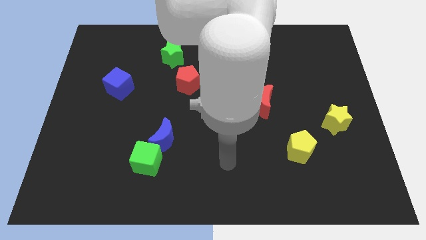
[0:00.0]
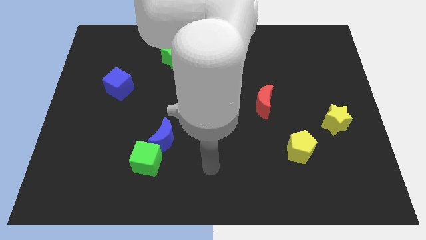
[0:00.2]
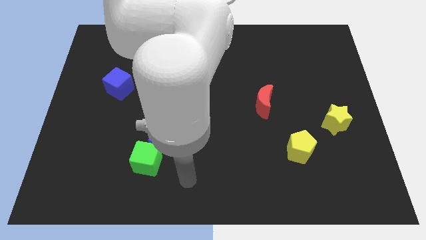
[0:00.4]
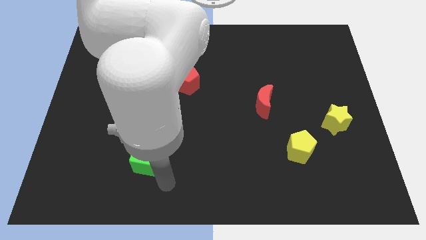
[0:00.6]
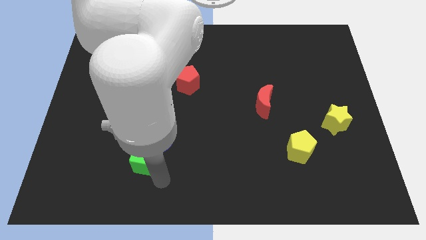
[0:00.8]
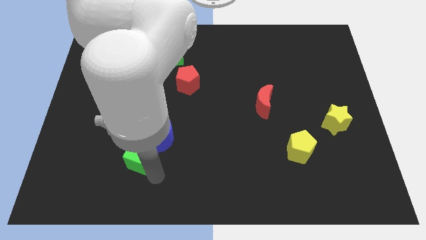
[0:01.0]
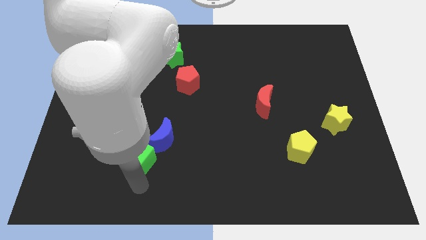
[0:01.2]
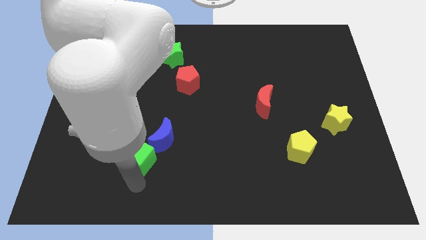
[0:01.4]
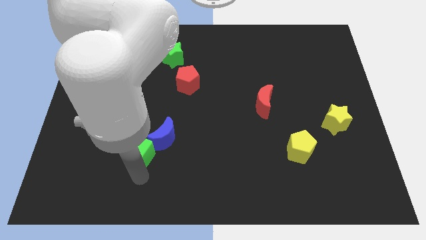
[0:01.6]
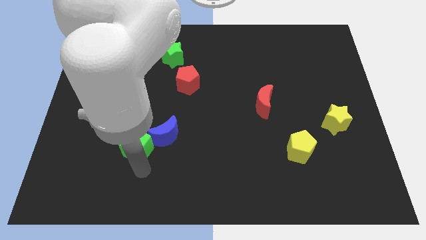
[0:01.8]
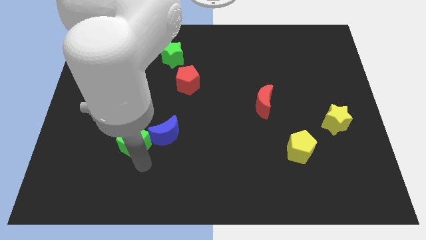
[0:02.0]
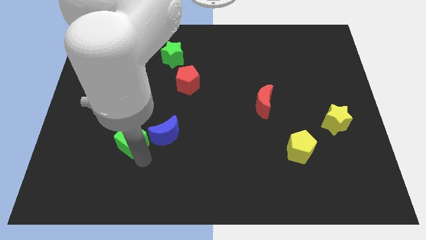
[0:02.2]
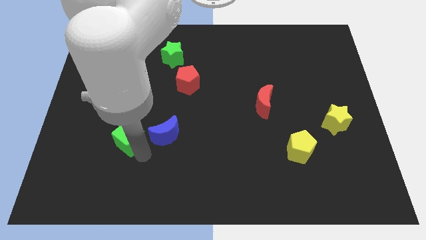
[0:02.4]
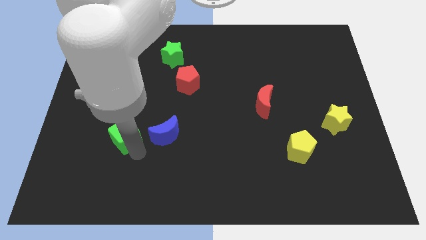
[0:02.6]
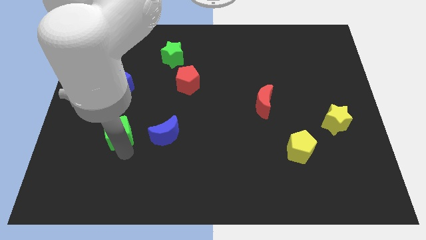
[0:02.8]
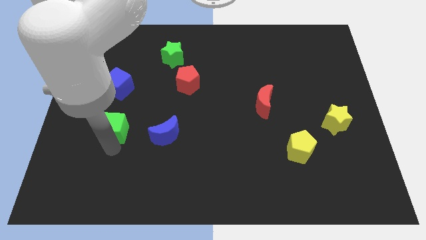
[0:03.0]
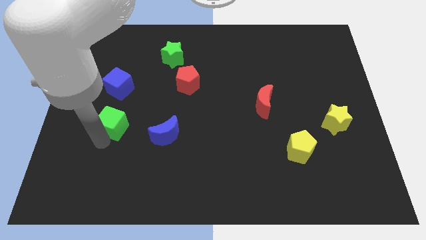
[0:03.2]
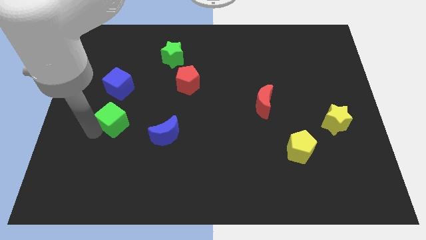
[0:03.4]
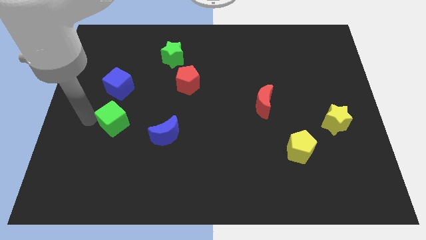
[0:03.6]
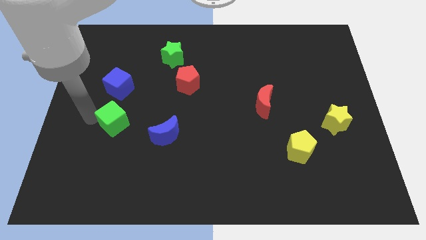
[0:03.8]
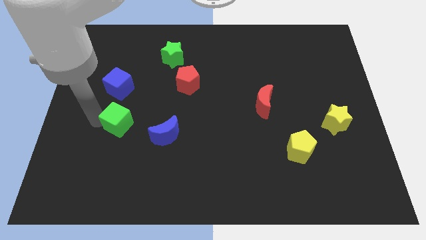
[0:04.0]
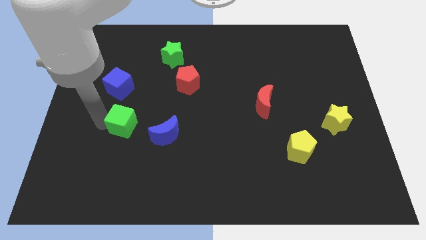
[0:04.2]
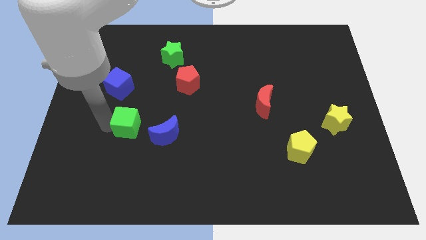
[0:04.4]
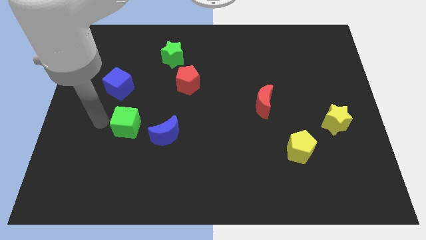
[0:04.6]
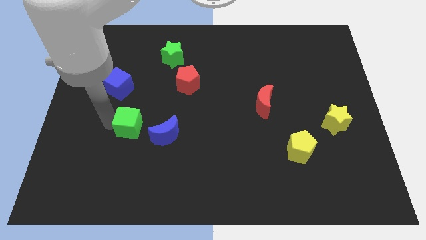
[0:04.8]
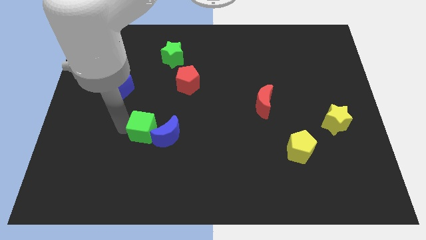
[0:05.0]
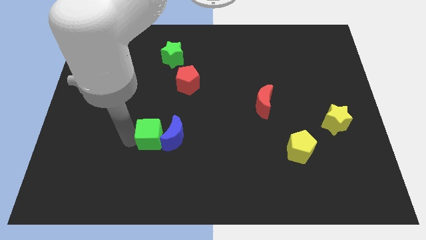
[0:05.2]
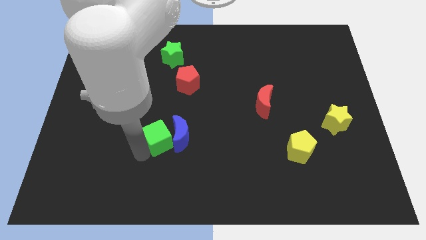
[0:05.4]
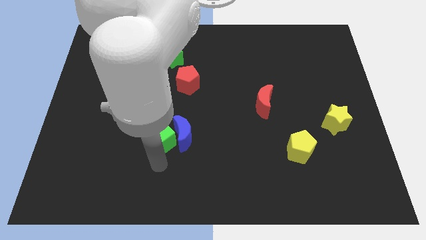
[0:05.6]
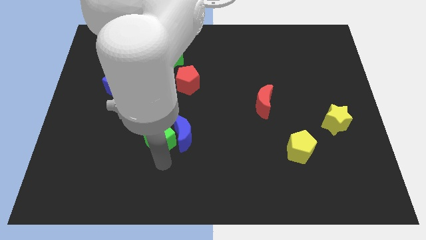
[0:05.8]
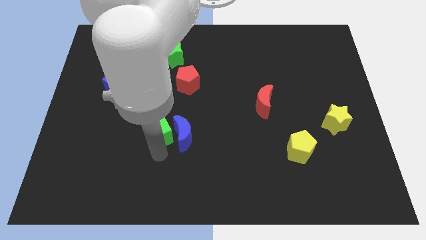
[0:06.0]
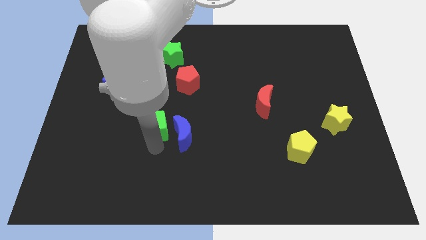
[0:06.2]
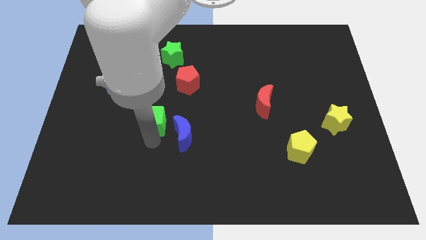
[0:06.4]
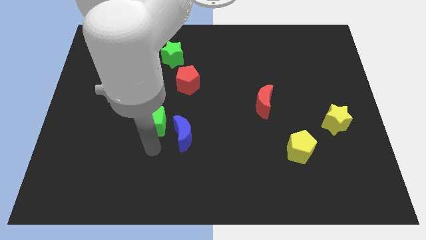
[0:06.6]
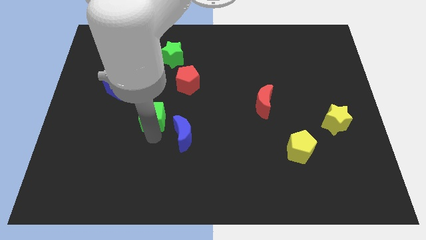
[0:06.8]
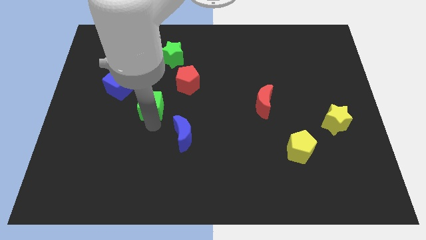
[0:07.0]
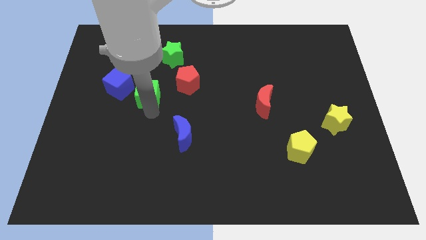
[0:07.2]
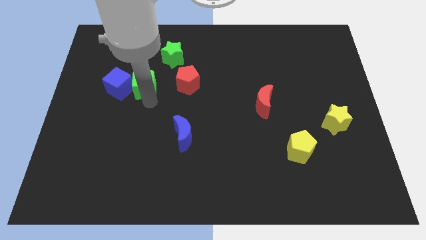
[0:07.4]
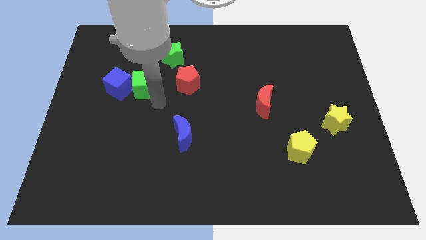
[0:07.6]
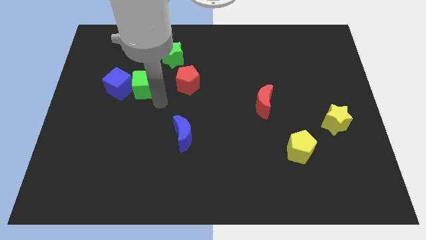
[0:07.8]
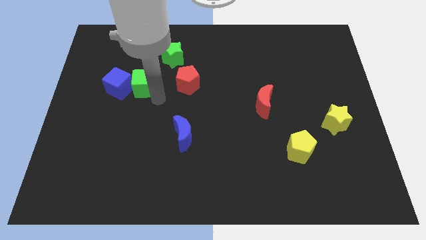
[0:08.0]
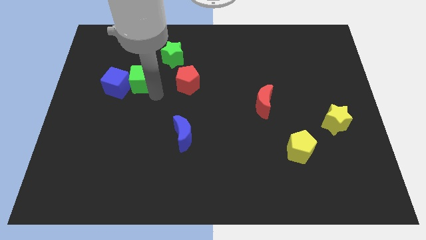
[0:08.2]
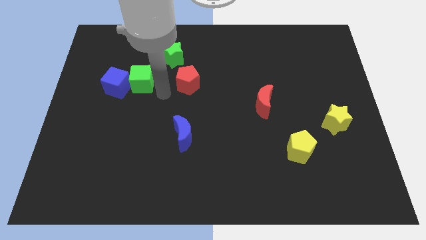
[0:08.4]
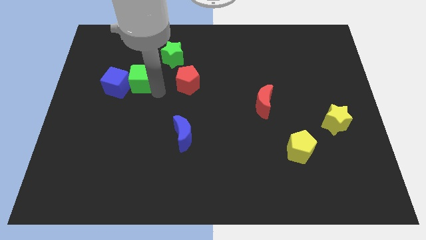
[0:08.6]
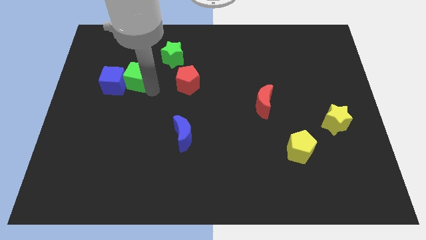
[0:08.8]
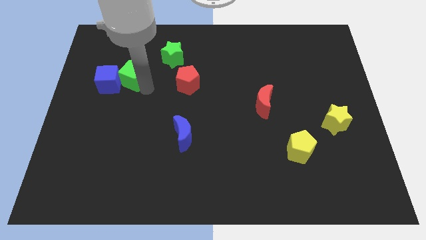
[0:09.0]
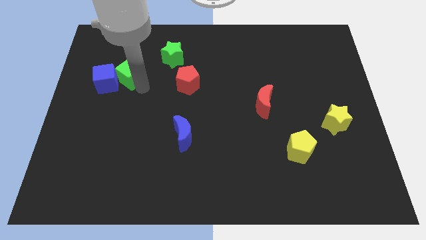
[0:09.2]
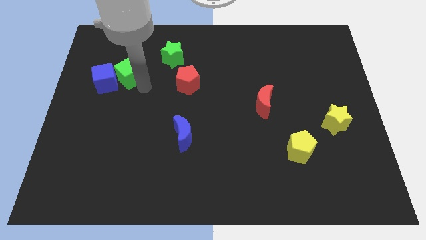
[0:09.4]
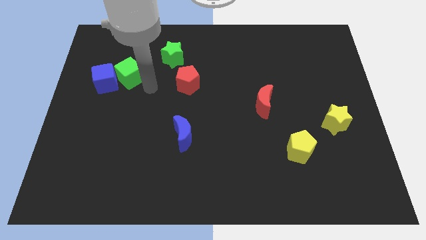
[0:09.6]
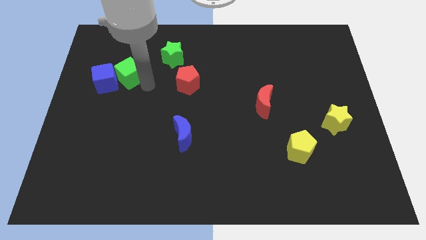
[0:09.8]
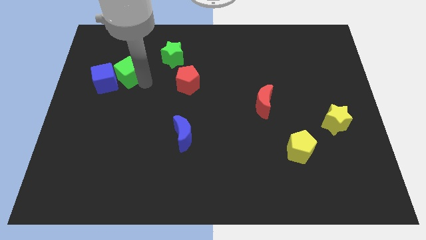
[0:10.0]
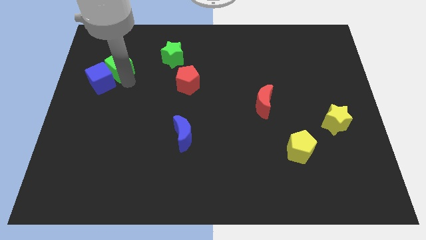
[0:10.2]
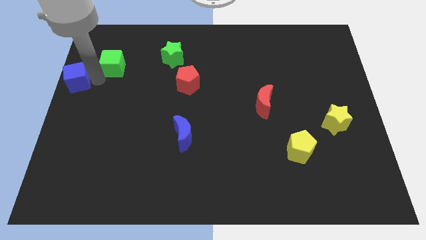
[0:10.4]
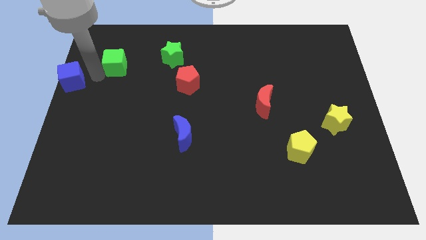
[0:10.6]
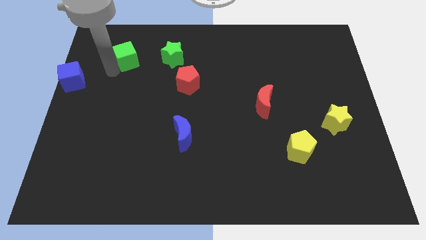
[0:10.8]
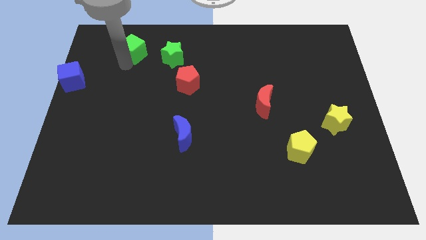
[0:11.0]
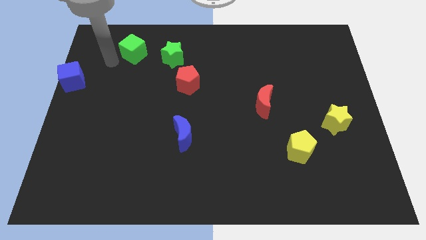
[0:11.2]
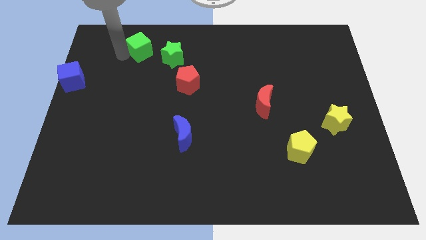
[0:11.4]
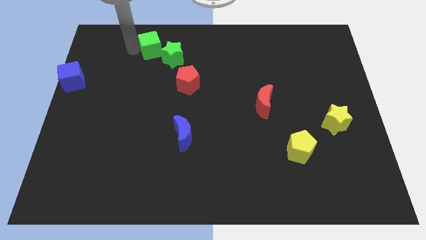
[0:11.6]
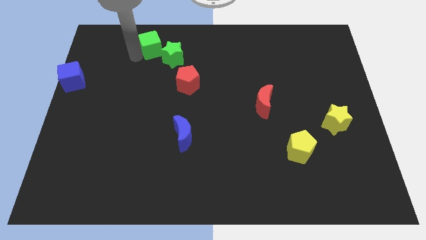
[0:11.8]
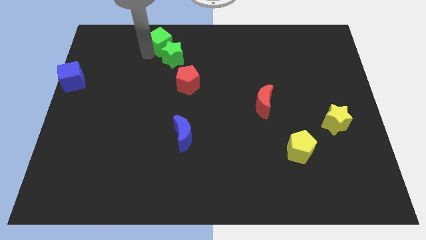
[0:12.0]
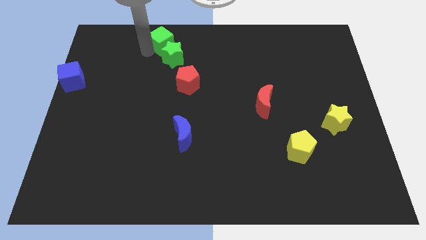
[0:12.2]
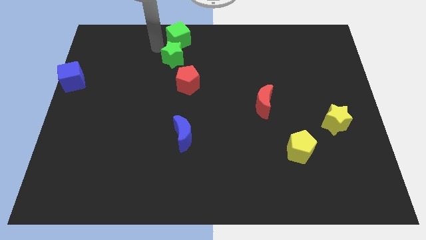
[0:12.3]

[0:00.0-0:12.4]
slide the green cube to the top side

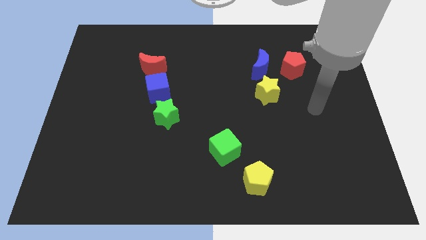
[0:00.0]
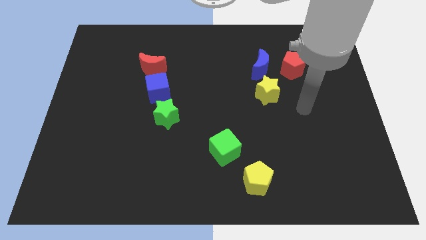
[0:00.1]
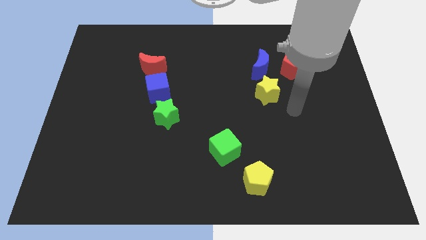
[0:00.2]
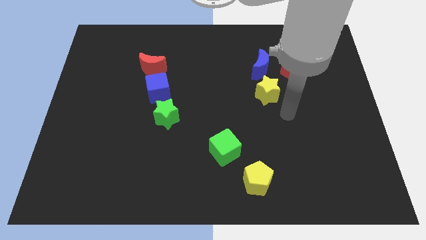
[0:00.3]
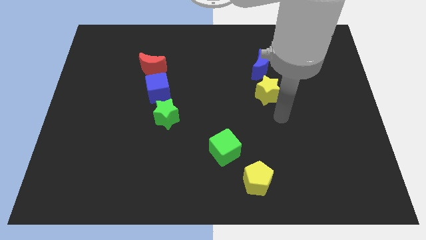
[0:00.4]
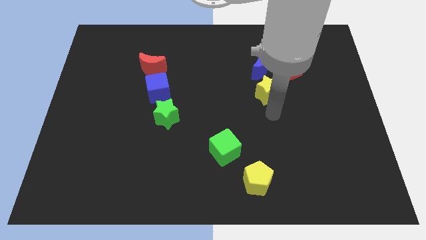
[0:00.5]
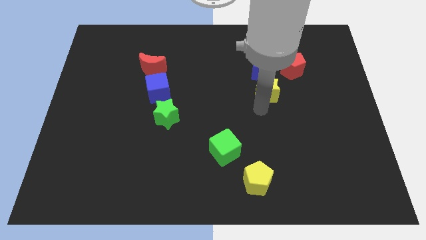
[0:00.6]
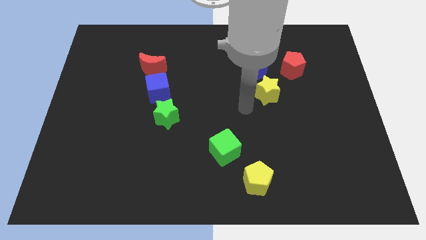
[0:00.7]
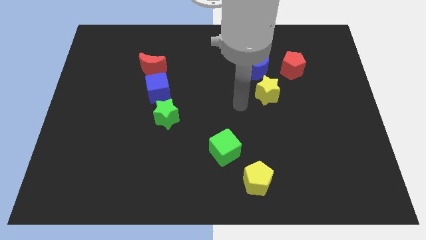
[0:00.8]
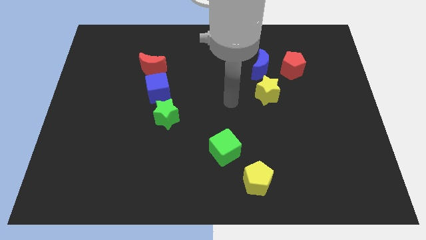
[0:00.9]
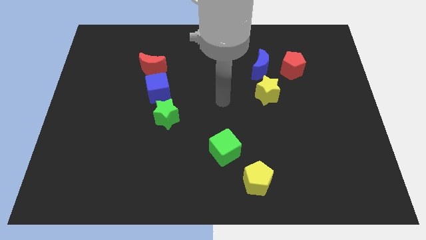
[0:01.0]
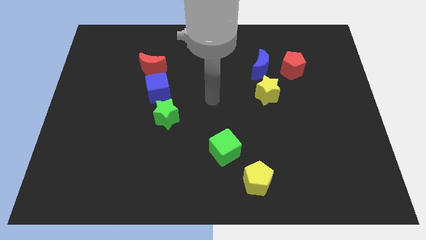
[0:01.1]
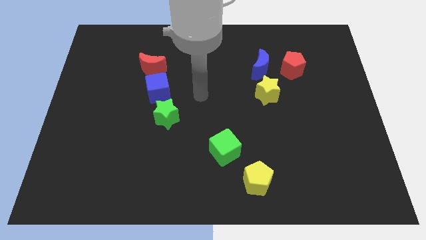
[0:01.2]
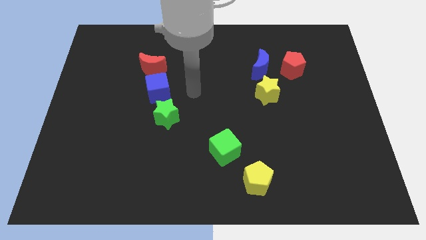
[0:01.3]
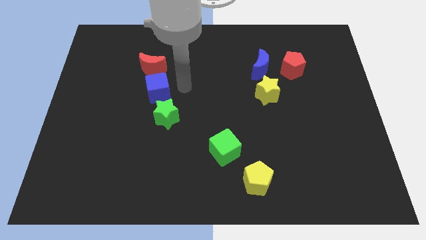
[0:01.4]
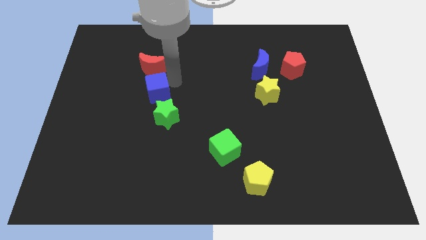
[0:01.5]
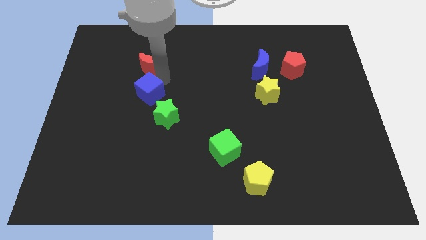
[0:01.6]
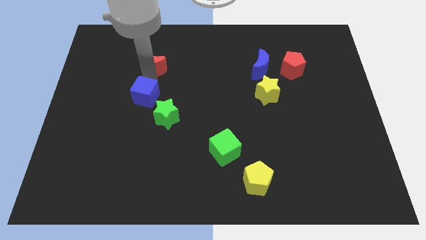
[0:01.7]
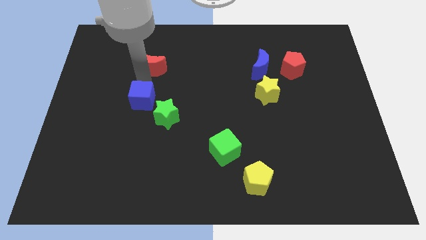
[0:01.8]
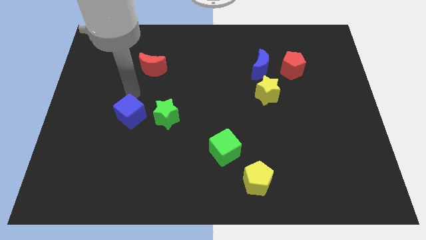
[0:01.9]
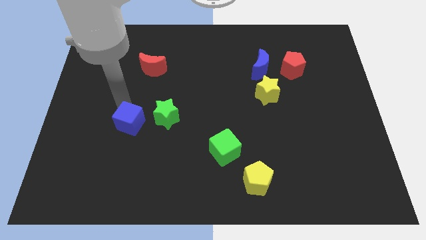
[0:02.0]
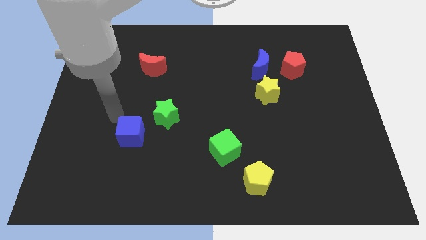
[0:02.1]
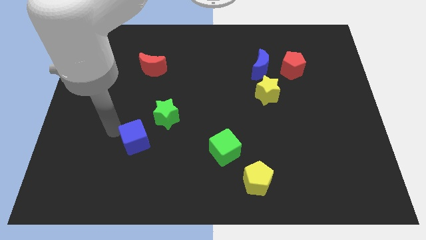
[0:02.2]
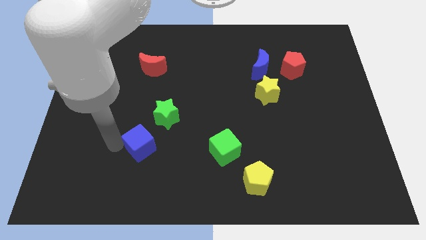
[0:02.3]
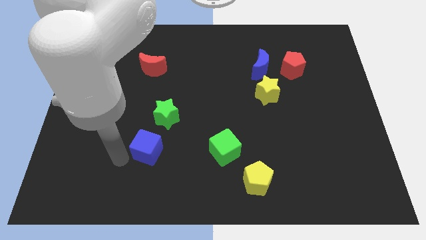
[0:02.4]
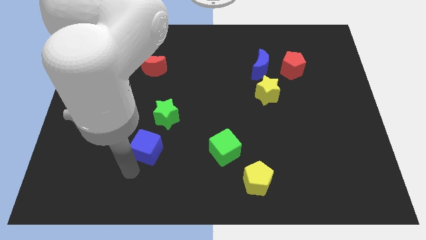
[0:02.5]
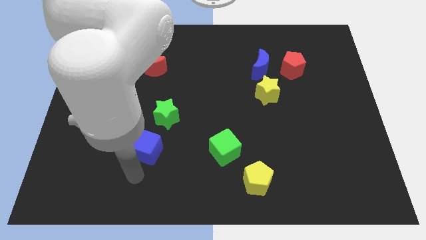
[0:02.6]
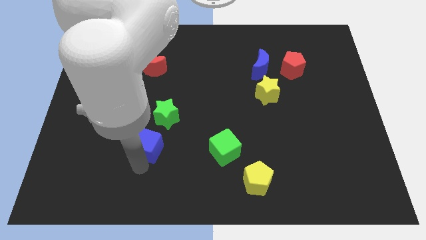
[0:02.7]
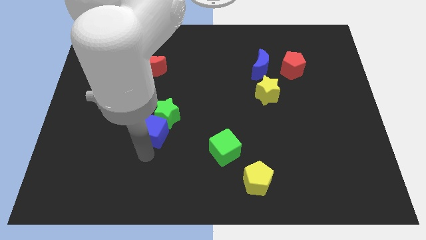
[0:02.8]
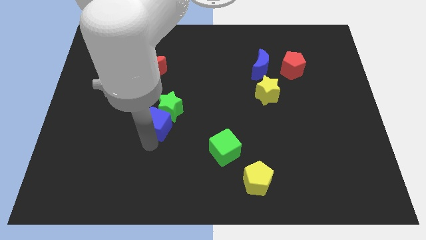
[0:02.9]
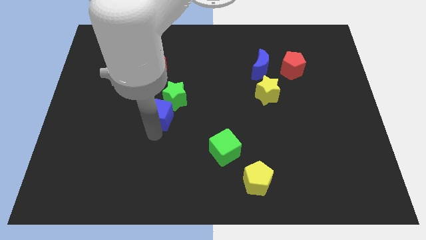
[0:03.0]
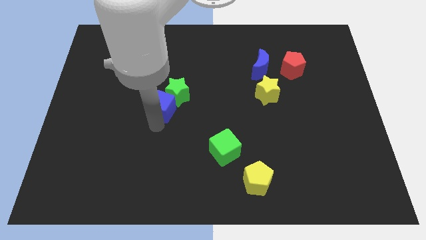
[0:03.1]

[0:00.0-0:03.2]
put the blue cube to the middle of the board
